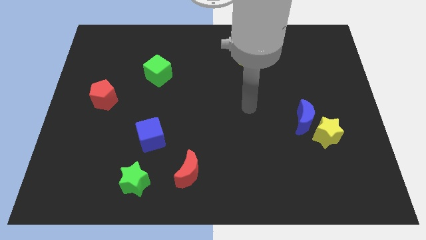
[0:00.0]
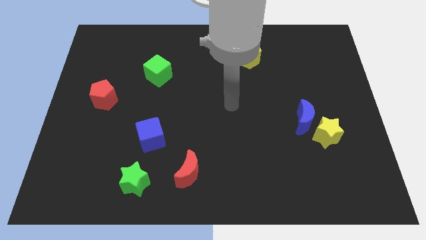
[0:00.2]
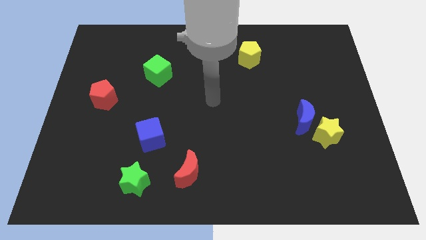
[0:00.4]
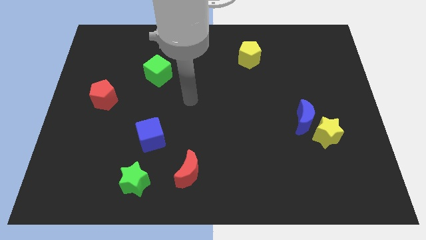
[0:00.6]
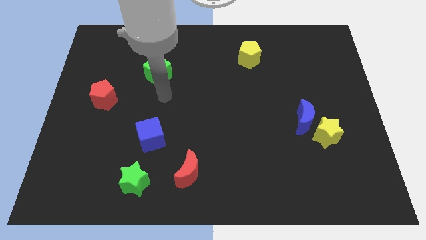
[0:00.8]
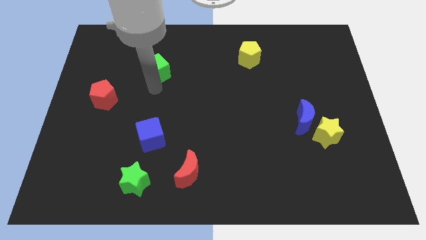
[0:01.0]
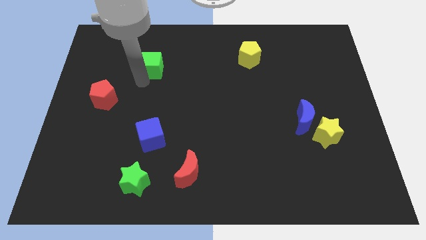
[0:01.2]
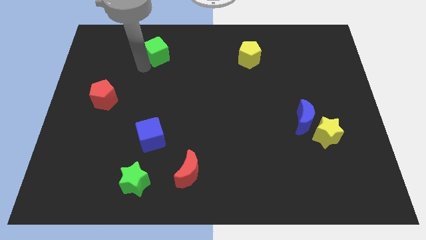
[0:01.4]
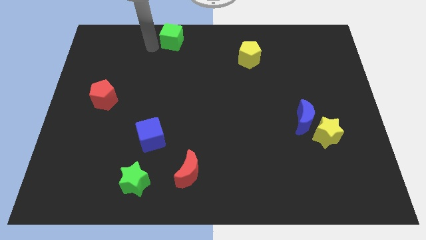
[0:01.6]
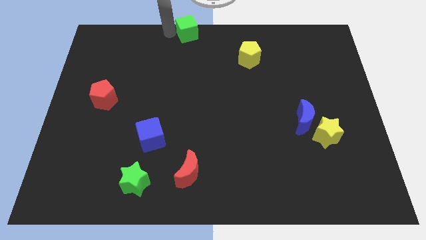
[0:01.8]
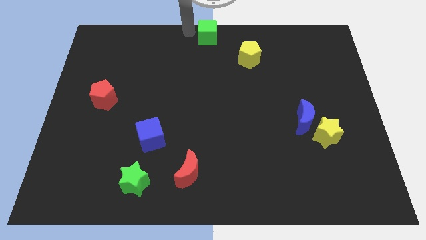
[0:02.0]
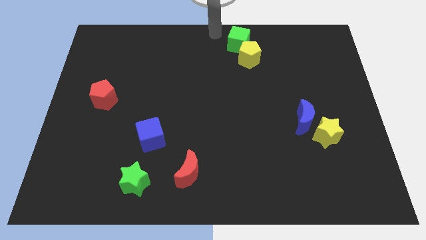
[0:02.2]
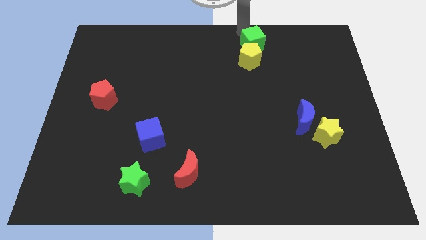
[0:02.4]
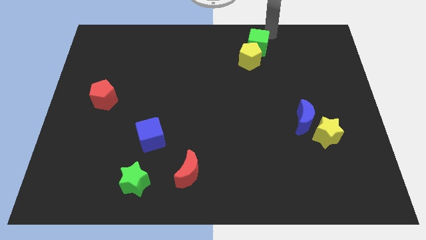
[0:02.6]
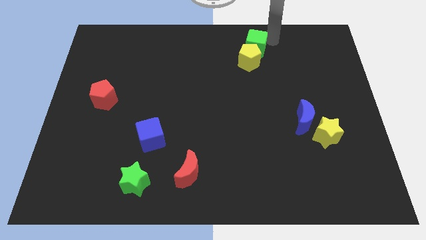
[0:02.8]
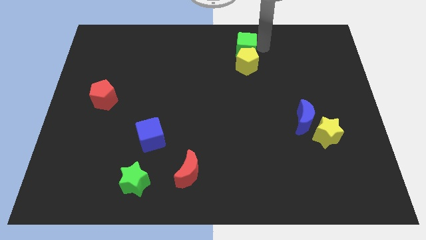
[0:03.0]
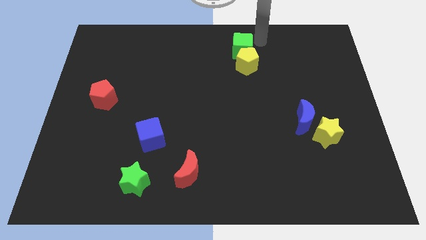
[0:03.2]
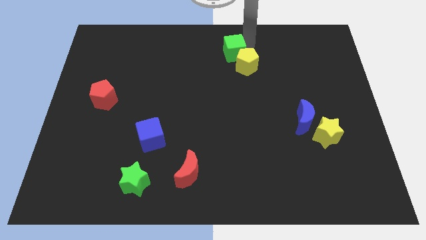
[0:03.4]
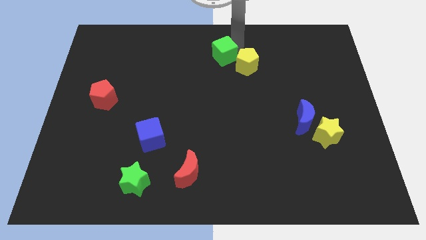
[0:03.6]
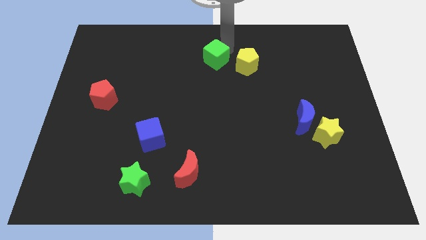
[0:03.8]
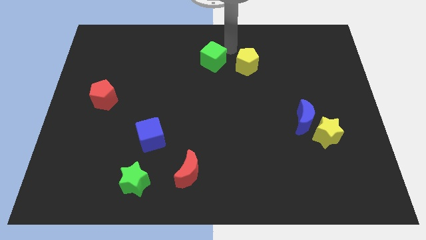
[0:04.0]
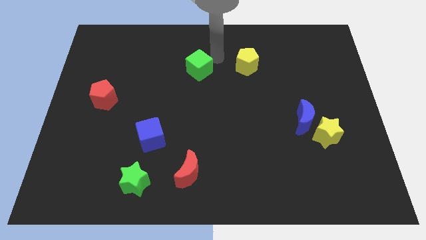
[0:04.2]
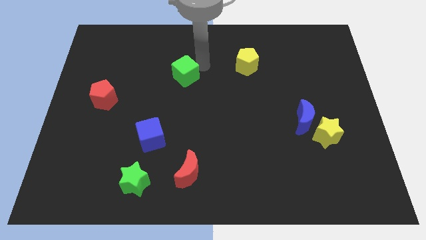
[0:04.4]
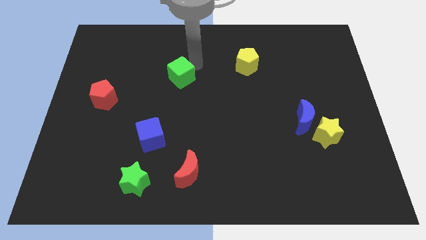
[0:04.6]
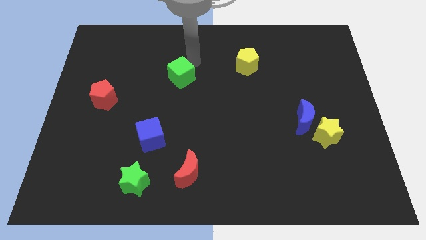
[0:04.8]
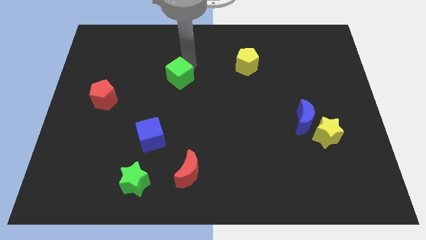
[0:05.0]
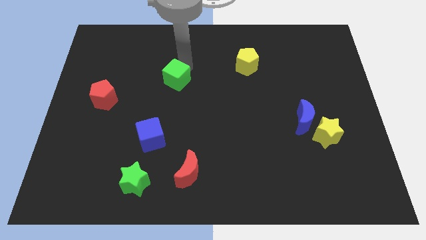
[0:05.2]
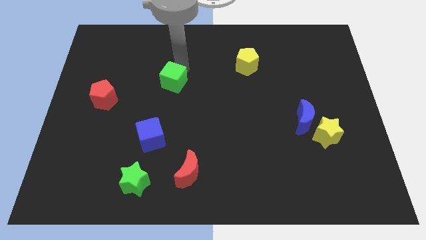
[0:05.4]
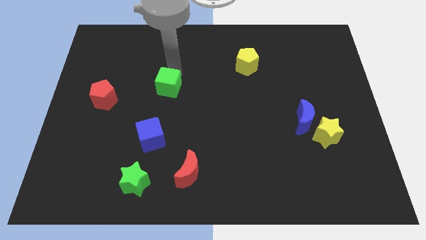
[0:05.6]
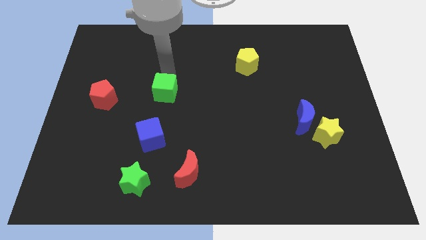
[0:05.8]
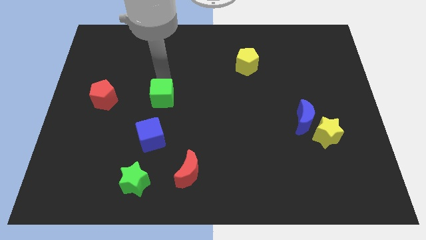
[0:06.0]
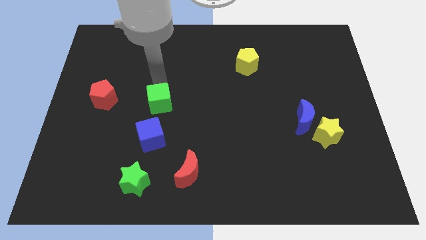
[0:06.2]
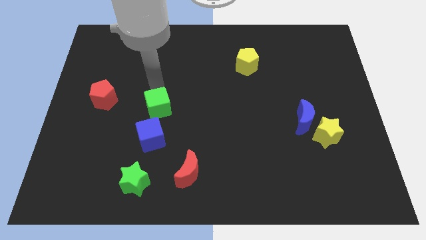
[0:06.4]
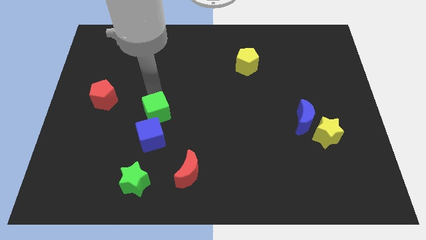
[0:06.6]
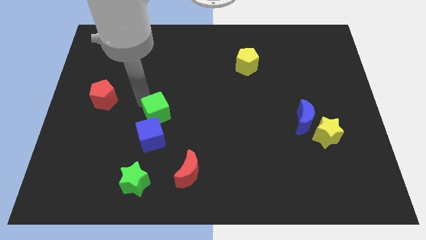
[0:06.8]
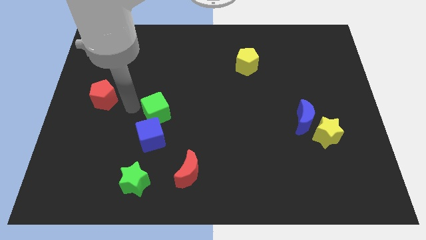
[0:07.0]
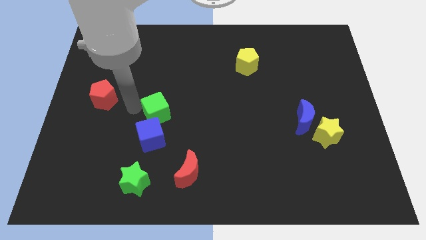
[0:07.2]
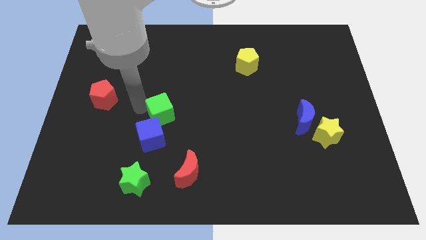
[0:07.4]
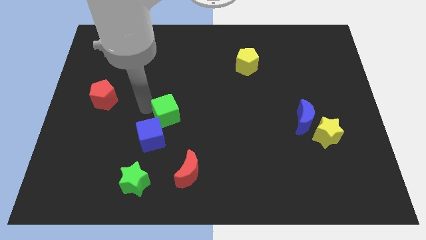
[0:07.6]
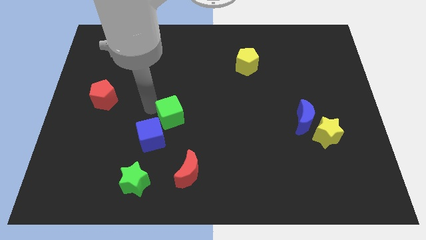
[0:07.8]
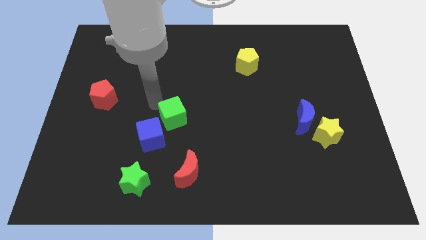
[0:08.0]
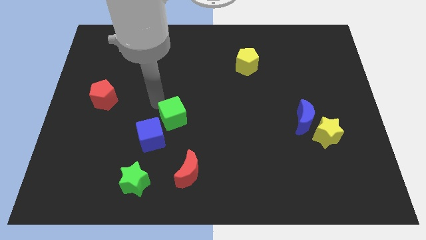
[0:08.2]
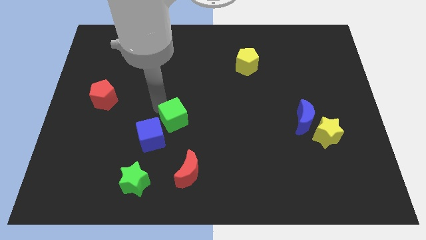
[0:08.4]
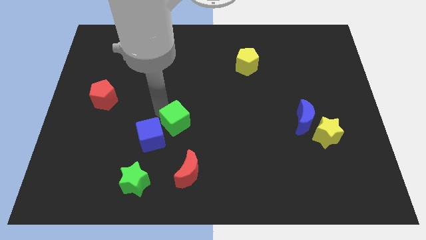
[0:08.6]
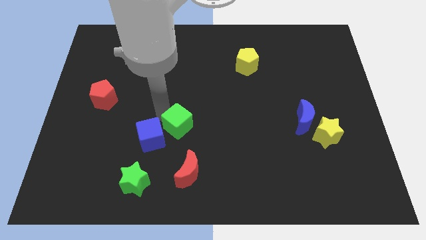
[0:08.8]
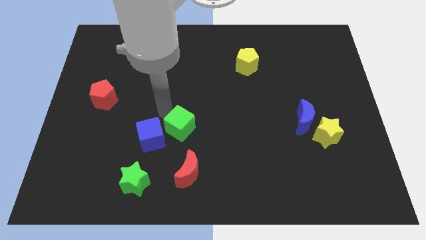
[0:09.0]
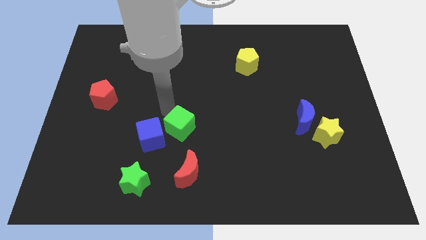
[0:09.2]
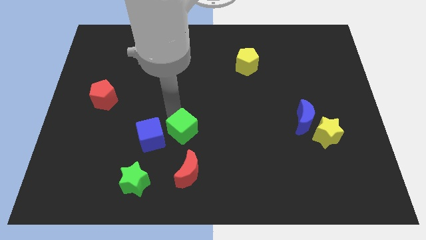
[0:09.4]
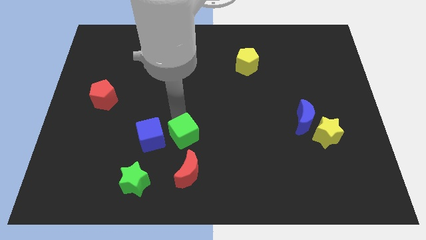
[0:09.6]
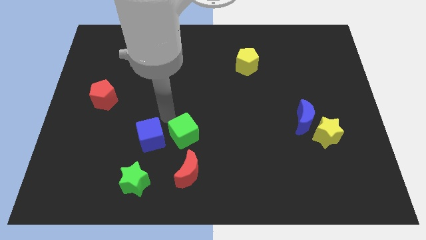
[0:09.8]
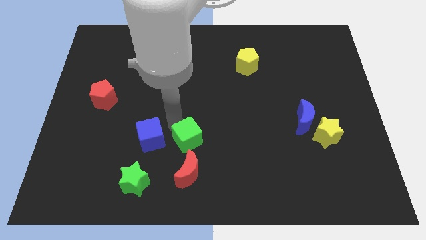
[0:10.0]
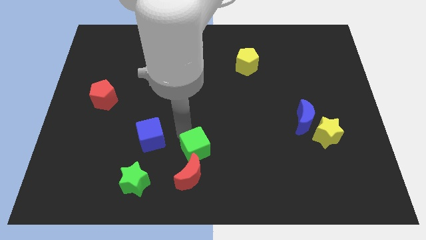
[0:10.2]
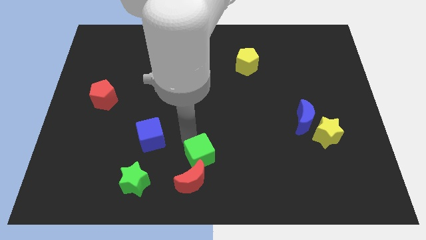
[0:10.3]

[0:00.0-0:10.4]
move the green cube to the bottom

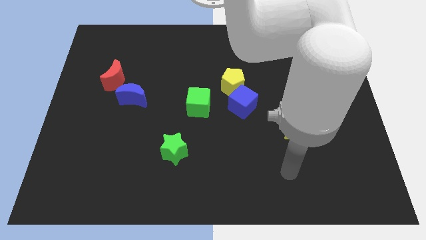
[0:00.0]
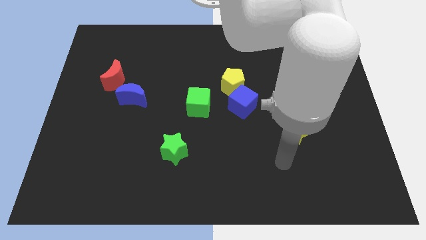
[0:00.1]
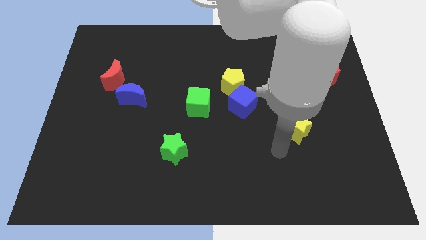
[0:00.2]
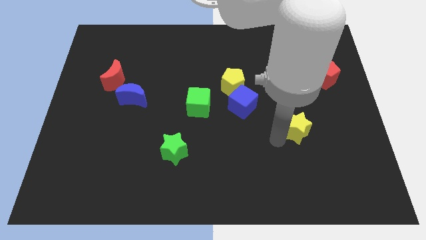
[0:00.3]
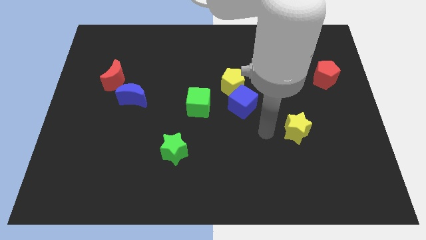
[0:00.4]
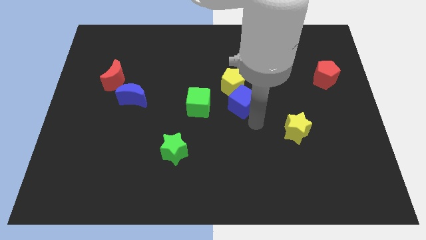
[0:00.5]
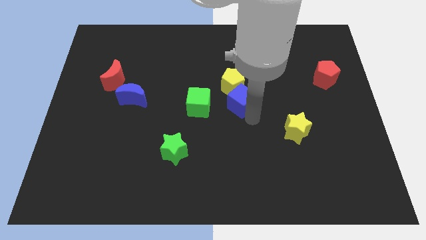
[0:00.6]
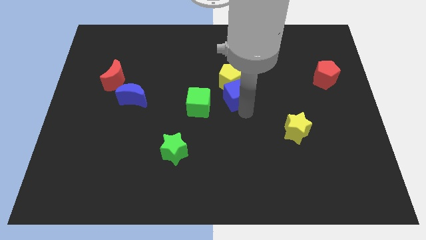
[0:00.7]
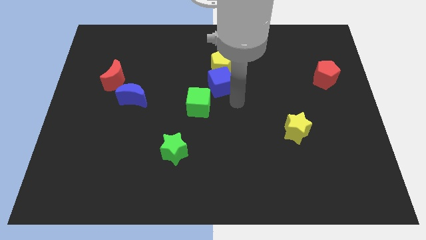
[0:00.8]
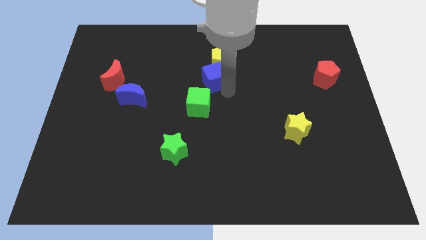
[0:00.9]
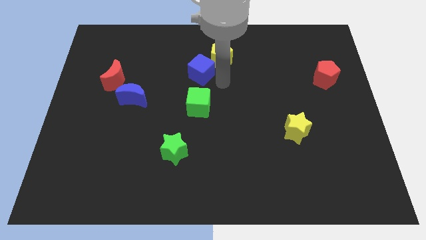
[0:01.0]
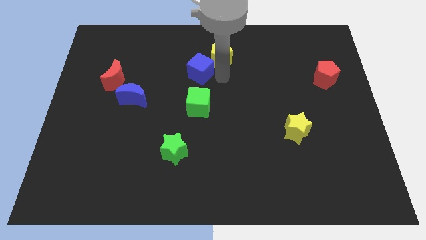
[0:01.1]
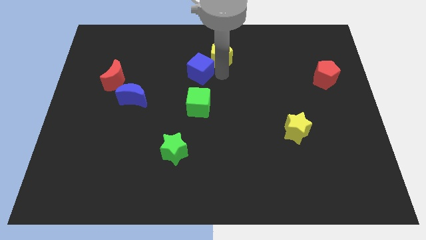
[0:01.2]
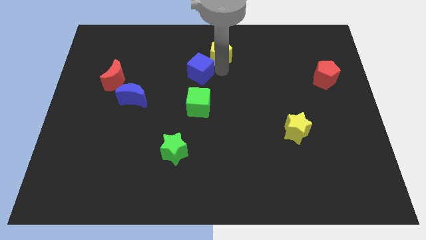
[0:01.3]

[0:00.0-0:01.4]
put the yellow pentagon to the top side
